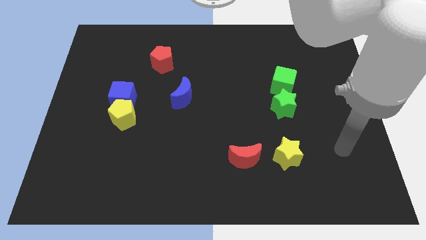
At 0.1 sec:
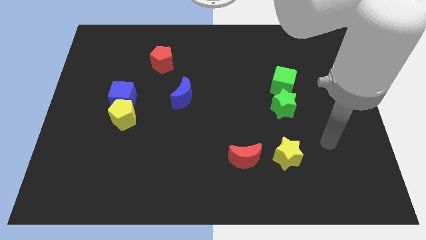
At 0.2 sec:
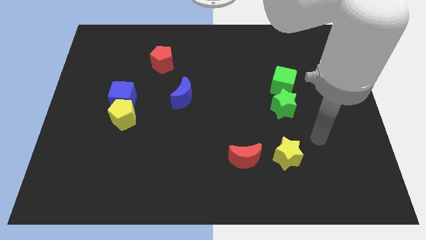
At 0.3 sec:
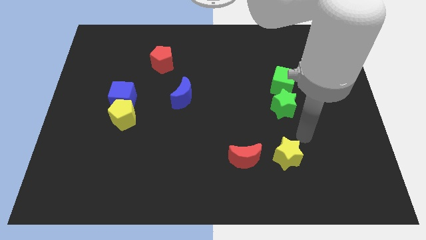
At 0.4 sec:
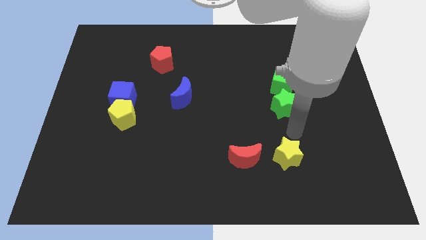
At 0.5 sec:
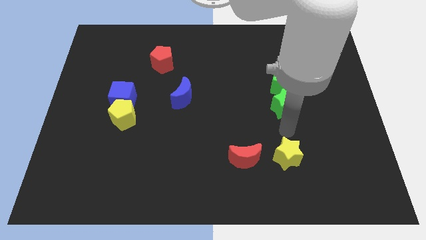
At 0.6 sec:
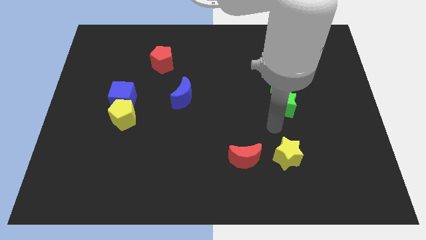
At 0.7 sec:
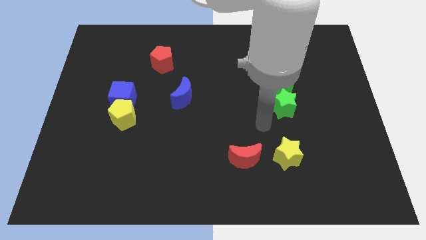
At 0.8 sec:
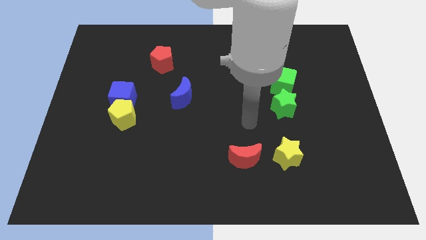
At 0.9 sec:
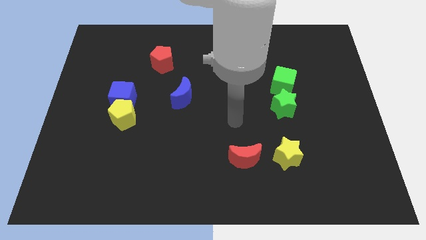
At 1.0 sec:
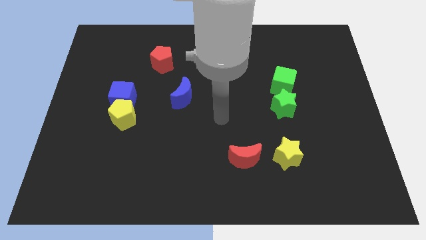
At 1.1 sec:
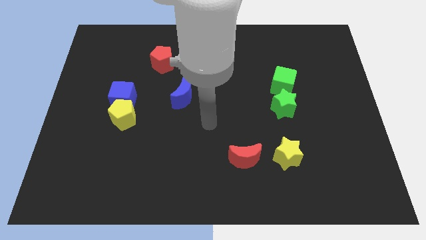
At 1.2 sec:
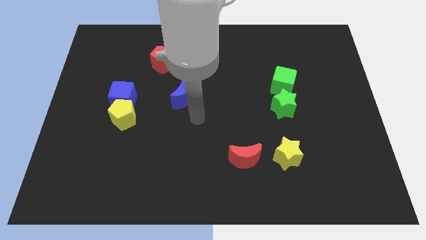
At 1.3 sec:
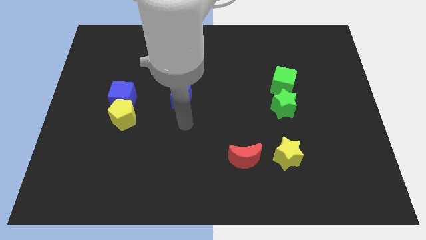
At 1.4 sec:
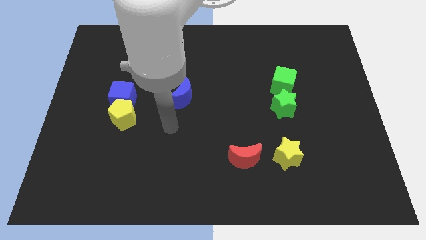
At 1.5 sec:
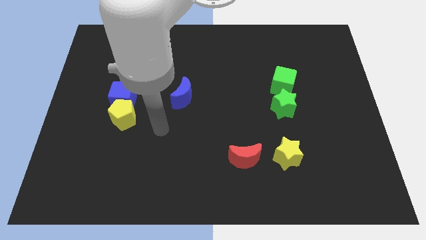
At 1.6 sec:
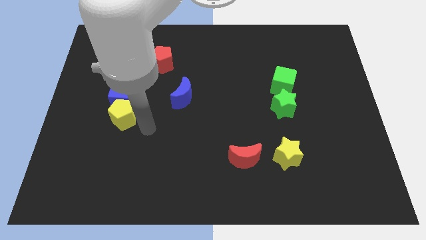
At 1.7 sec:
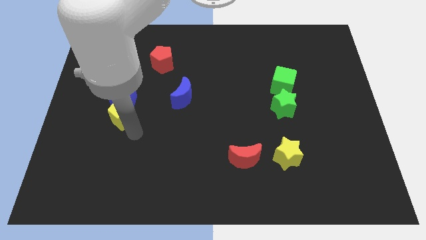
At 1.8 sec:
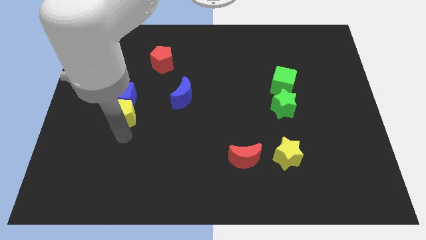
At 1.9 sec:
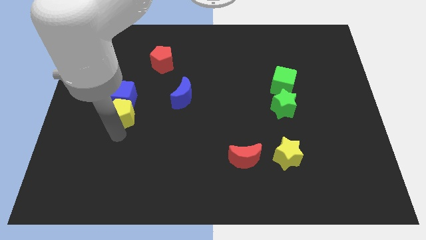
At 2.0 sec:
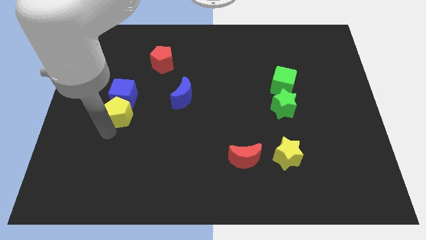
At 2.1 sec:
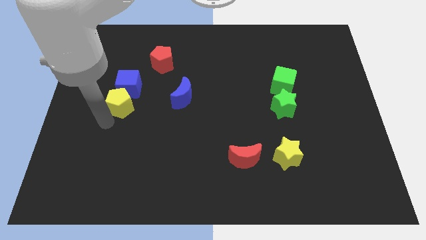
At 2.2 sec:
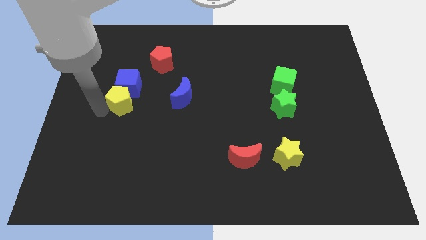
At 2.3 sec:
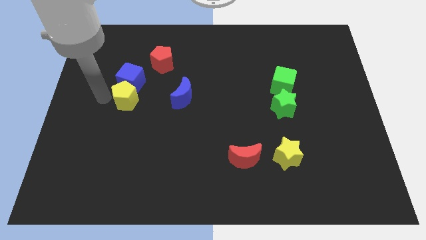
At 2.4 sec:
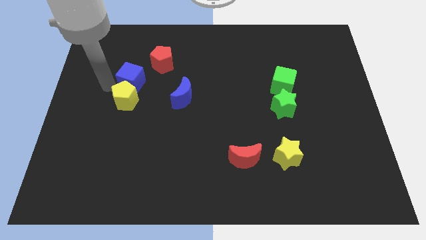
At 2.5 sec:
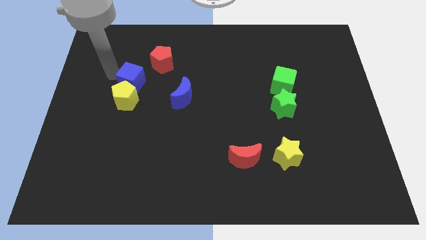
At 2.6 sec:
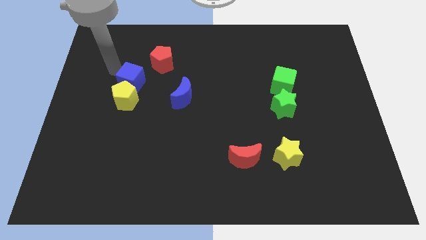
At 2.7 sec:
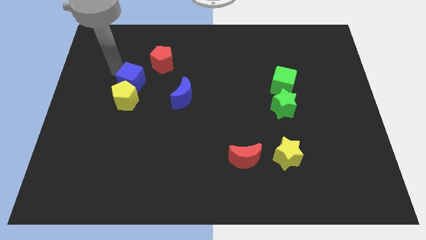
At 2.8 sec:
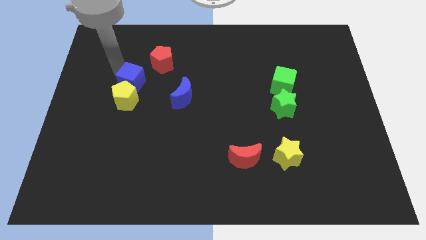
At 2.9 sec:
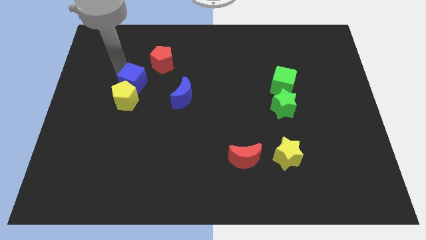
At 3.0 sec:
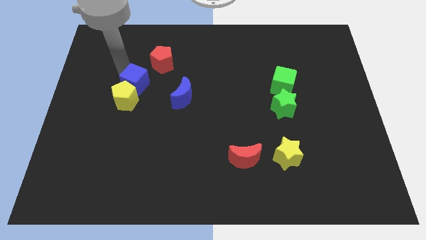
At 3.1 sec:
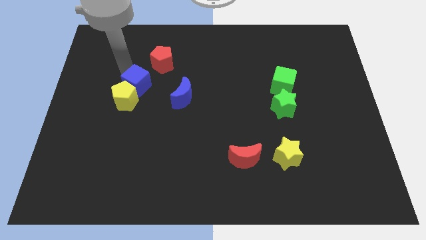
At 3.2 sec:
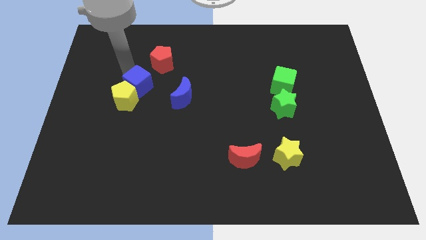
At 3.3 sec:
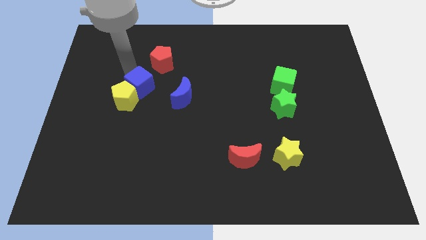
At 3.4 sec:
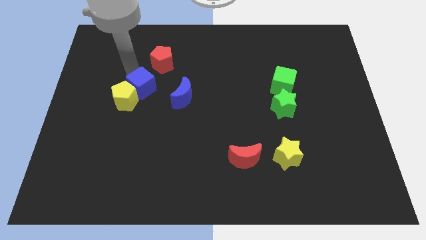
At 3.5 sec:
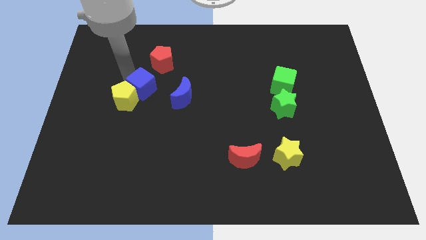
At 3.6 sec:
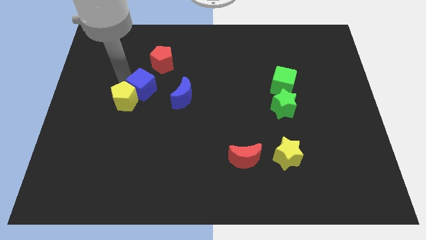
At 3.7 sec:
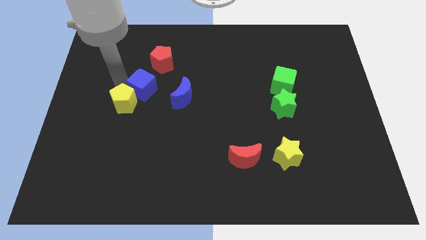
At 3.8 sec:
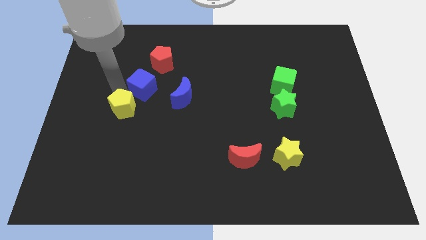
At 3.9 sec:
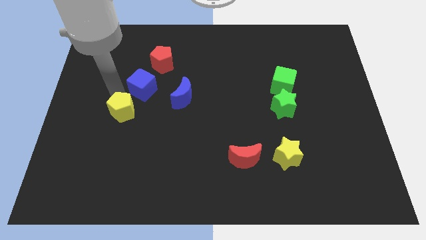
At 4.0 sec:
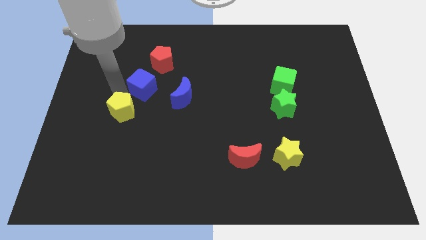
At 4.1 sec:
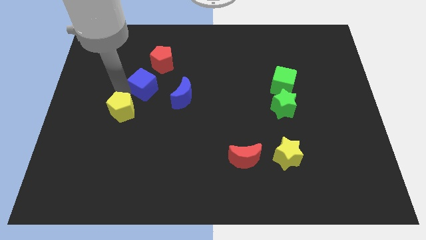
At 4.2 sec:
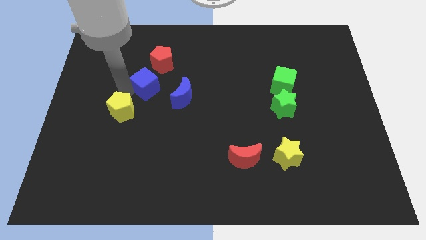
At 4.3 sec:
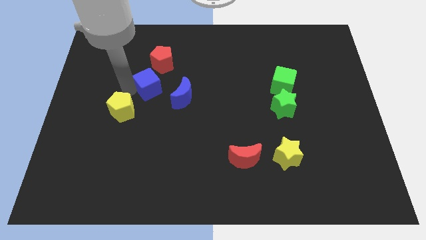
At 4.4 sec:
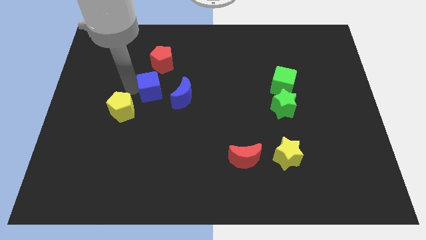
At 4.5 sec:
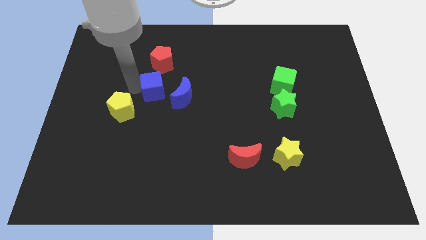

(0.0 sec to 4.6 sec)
slightly push the blue cube diagonally up and to the right

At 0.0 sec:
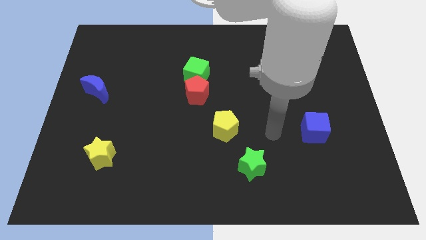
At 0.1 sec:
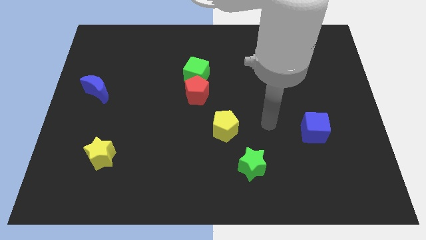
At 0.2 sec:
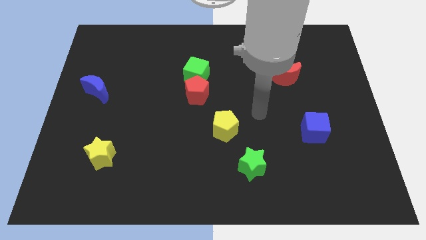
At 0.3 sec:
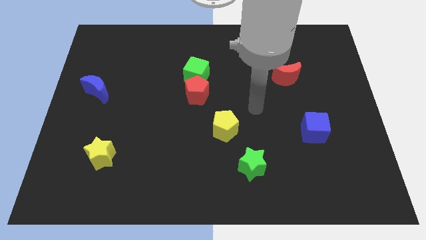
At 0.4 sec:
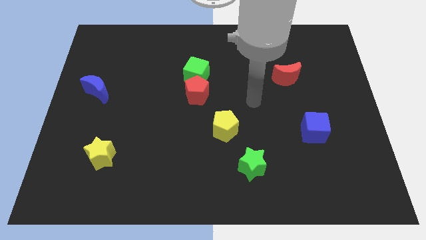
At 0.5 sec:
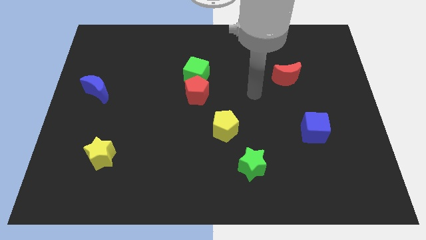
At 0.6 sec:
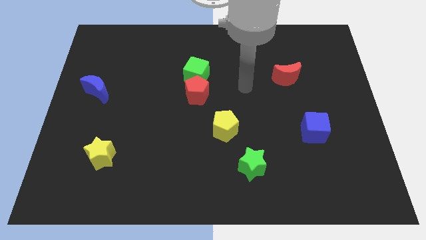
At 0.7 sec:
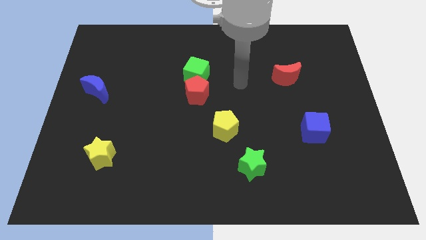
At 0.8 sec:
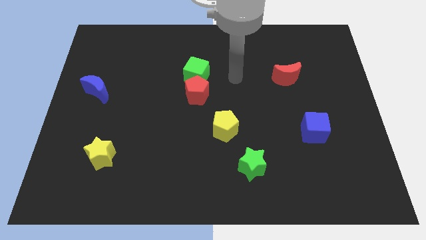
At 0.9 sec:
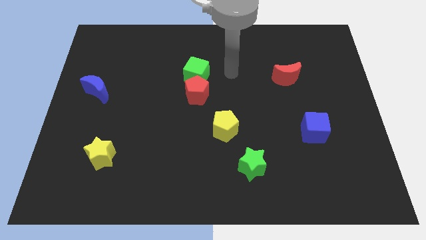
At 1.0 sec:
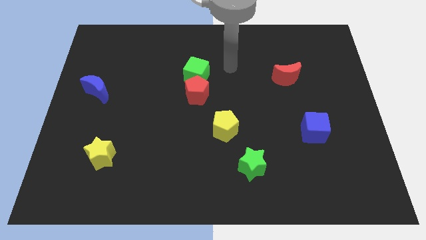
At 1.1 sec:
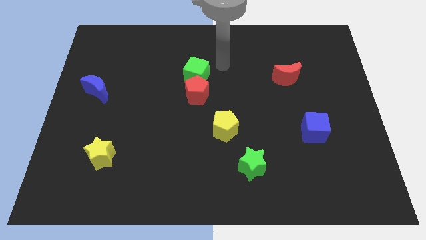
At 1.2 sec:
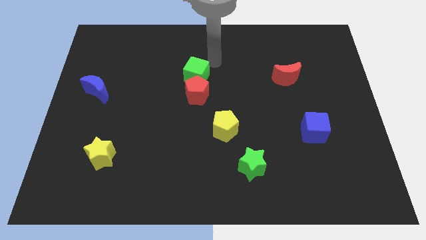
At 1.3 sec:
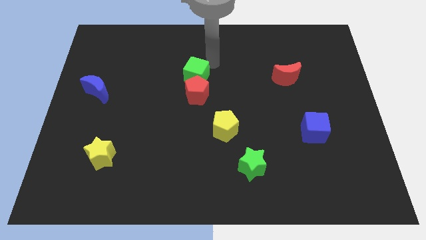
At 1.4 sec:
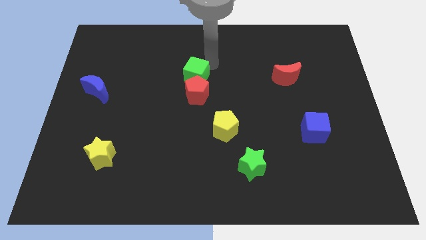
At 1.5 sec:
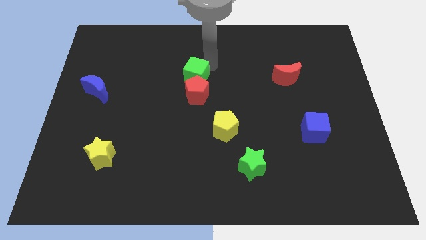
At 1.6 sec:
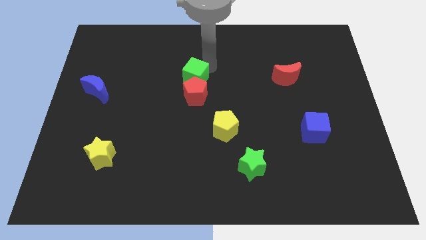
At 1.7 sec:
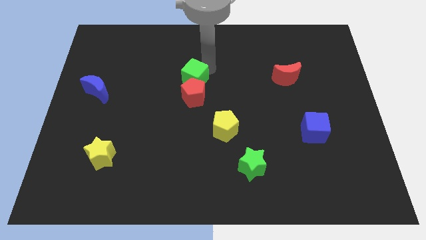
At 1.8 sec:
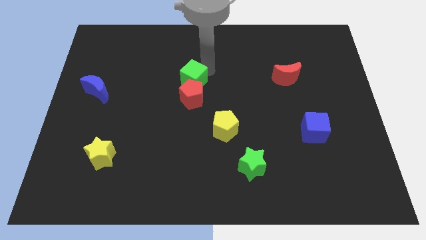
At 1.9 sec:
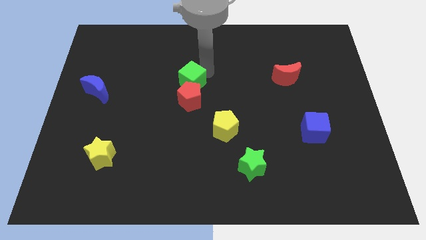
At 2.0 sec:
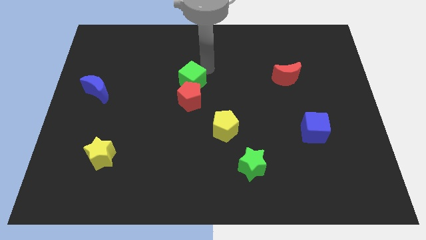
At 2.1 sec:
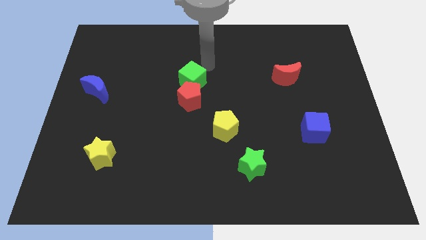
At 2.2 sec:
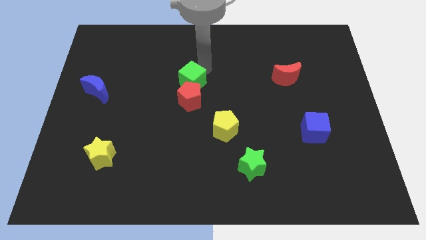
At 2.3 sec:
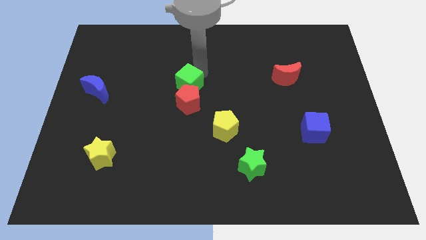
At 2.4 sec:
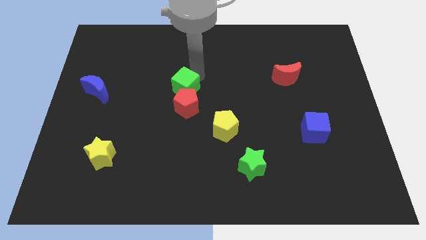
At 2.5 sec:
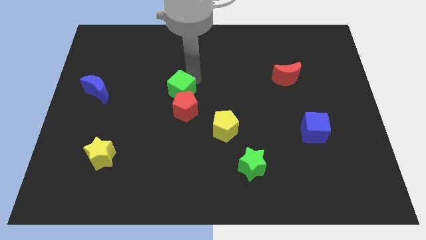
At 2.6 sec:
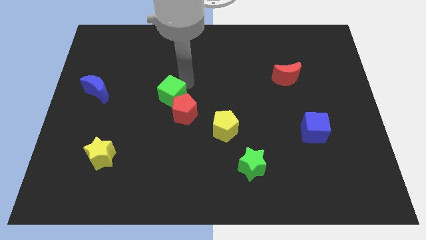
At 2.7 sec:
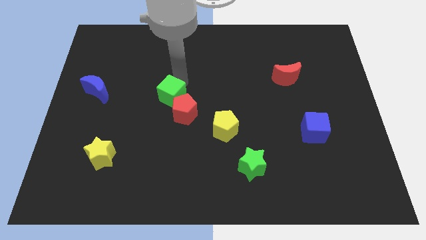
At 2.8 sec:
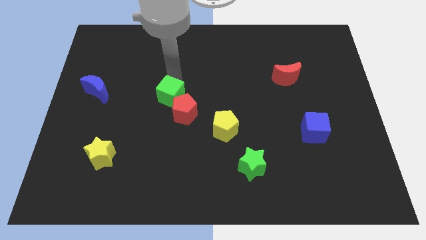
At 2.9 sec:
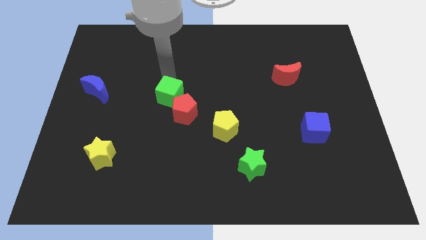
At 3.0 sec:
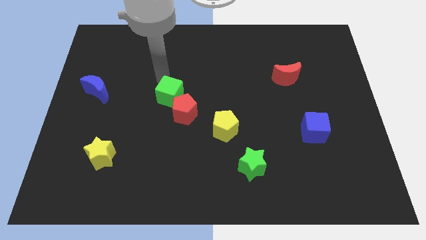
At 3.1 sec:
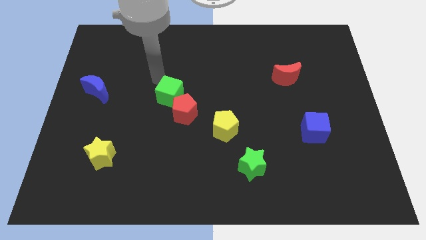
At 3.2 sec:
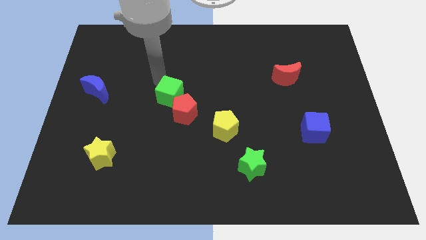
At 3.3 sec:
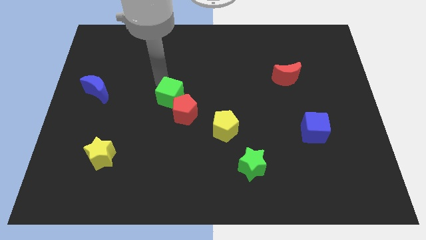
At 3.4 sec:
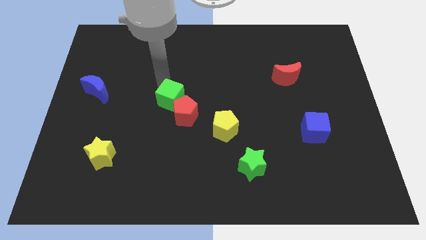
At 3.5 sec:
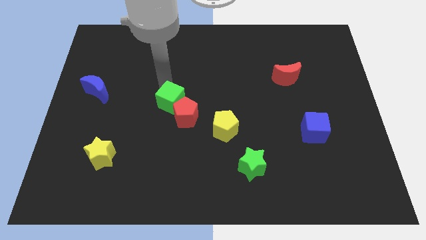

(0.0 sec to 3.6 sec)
slide the green cube downwards slightly

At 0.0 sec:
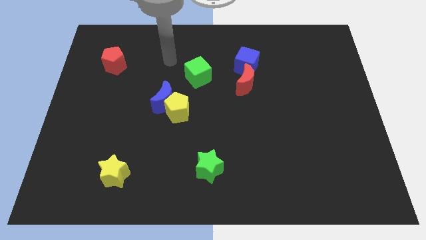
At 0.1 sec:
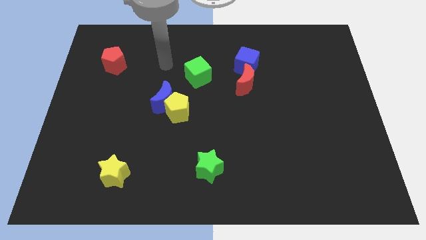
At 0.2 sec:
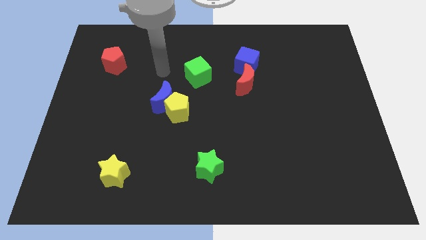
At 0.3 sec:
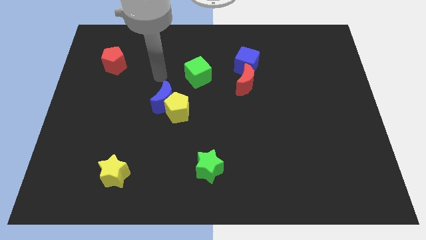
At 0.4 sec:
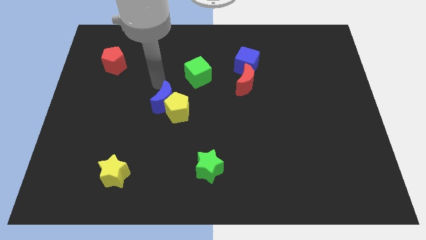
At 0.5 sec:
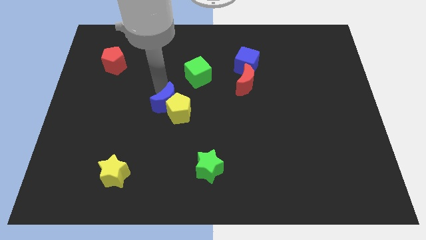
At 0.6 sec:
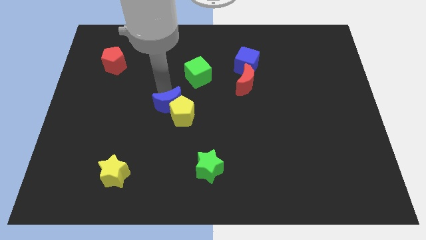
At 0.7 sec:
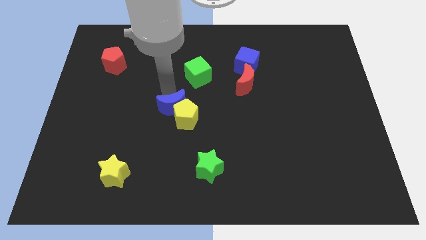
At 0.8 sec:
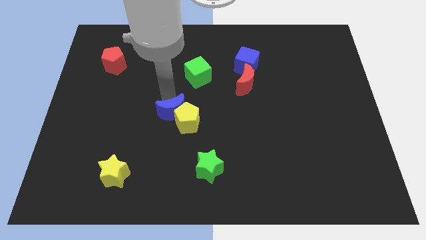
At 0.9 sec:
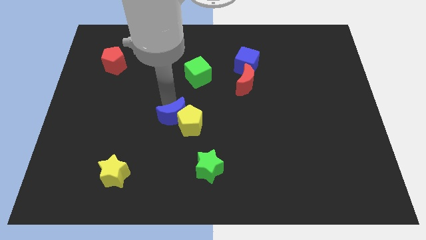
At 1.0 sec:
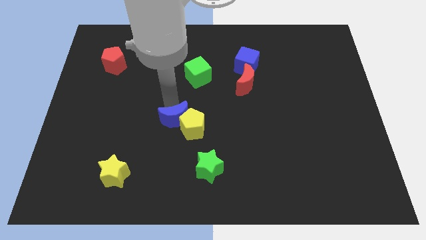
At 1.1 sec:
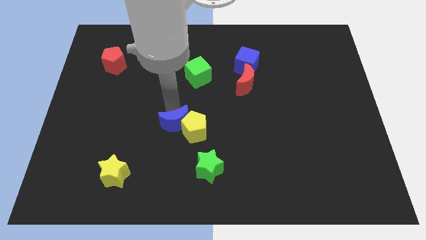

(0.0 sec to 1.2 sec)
push the yellow pentagon diagonally down and right a bit
